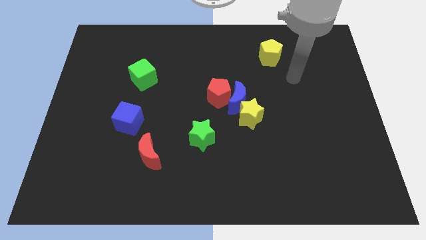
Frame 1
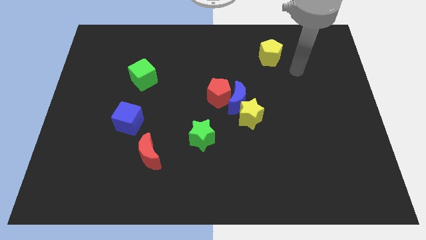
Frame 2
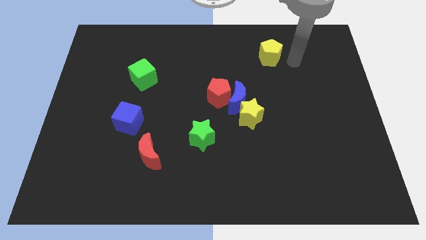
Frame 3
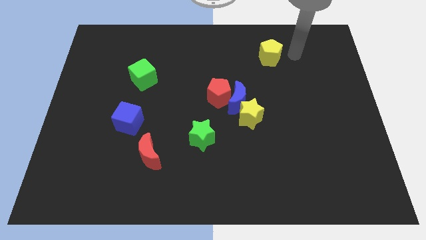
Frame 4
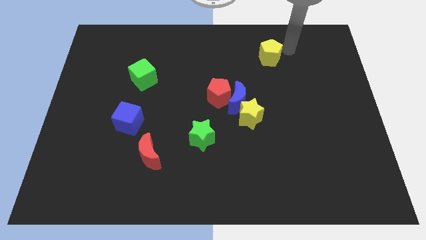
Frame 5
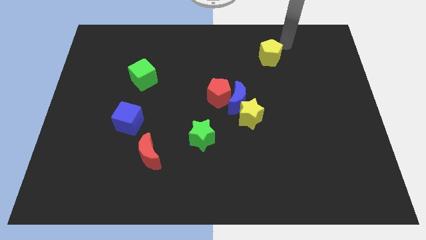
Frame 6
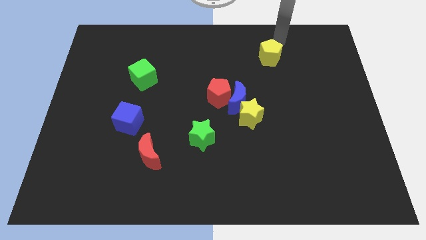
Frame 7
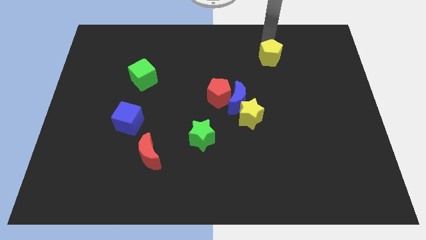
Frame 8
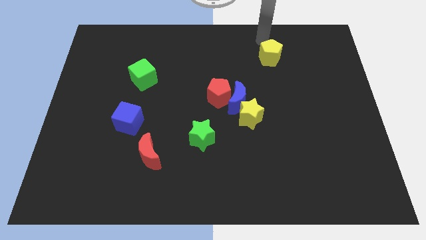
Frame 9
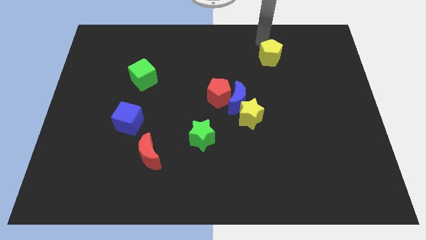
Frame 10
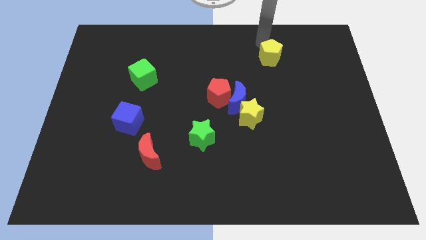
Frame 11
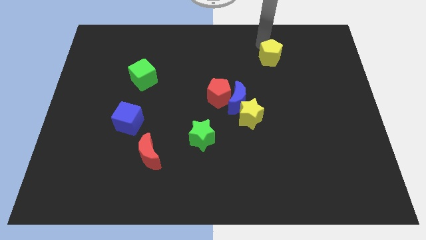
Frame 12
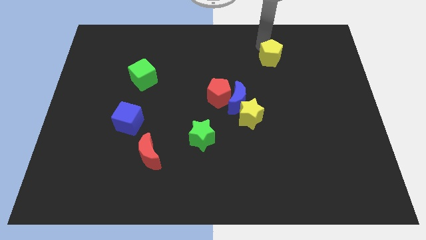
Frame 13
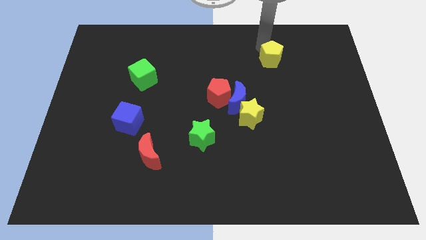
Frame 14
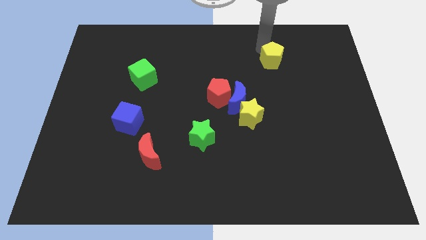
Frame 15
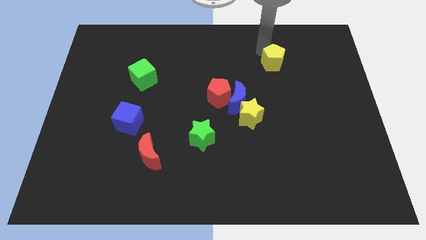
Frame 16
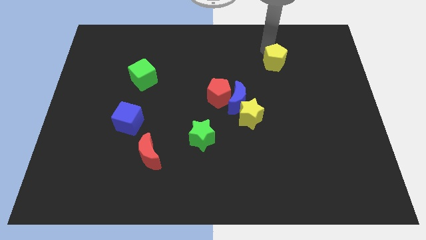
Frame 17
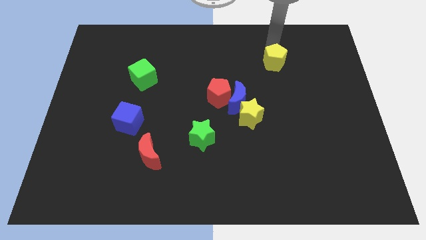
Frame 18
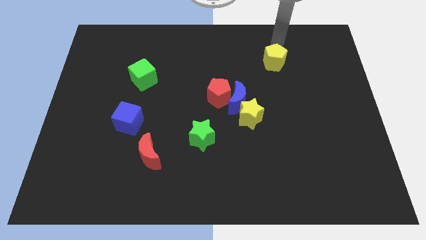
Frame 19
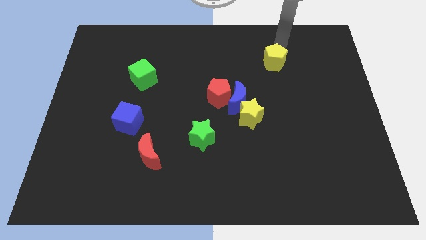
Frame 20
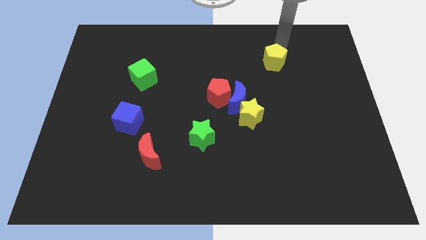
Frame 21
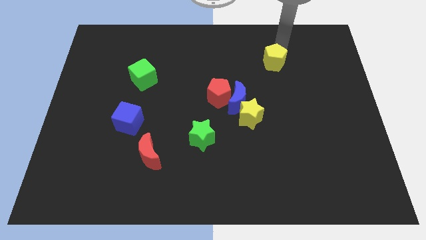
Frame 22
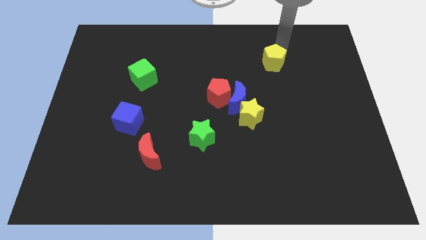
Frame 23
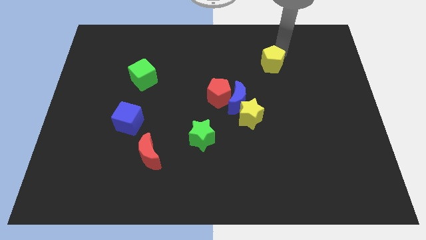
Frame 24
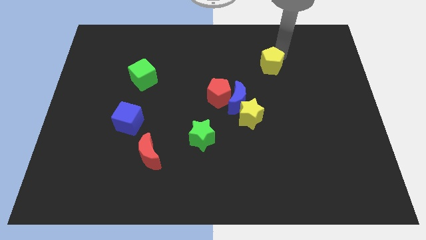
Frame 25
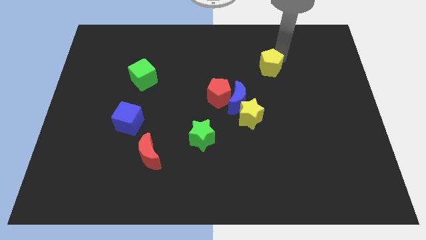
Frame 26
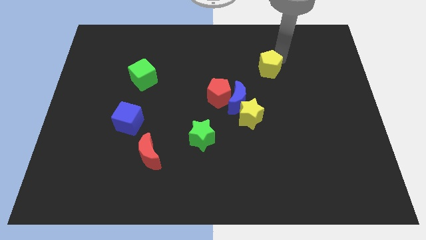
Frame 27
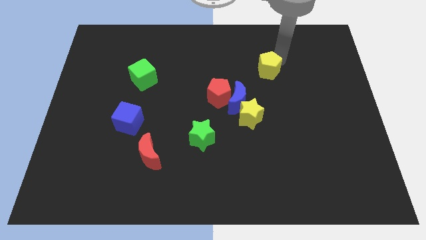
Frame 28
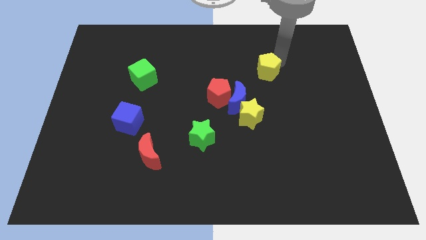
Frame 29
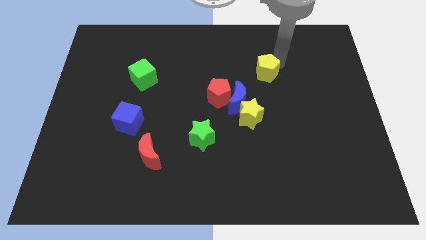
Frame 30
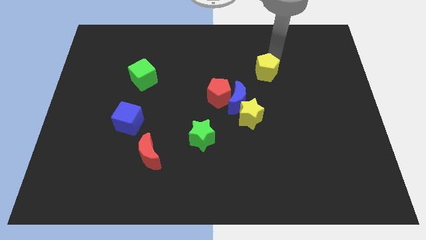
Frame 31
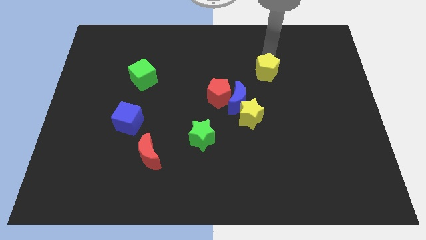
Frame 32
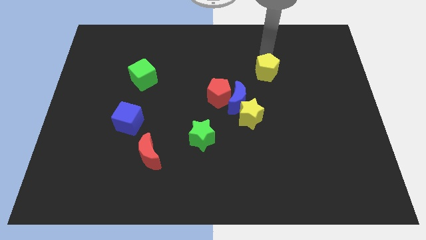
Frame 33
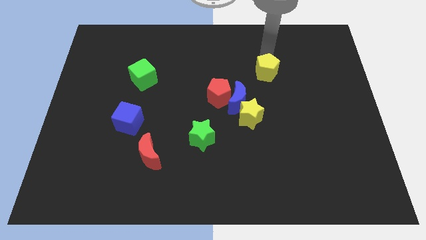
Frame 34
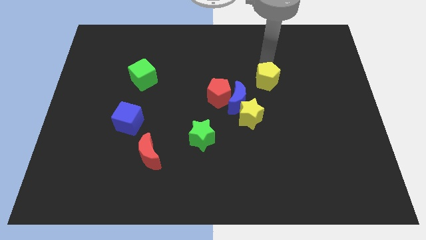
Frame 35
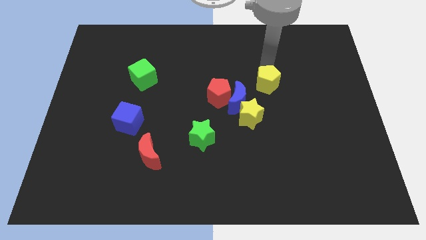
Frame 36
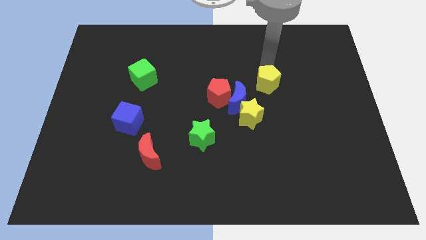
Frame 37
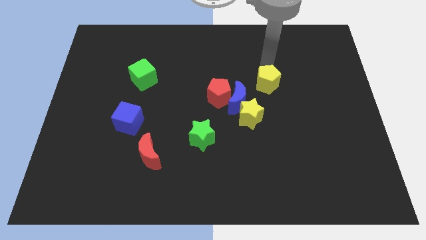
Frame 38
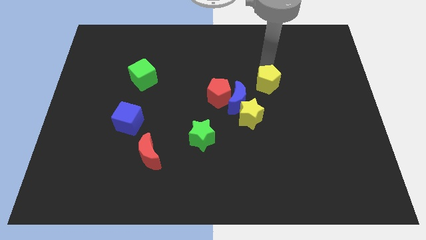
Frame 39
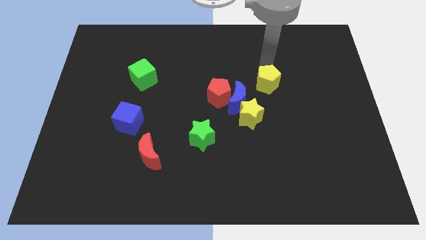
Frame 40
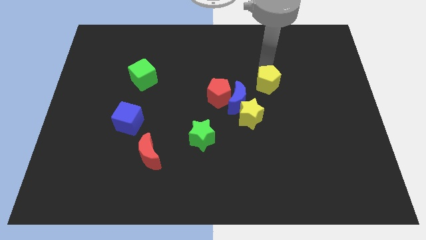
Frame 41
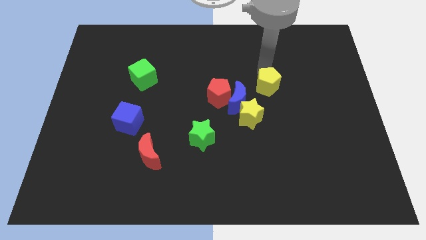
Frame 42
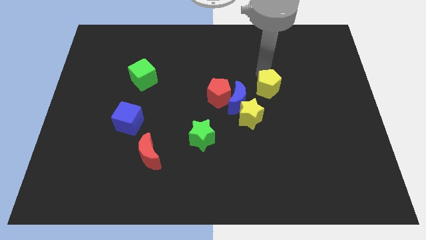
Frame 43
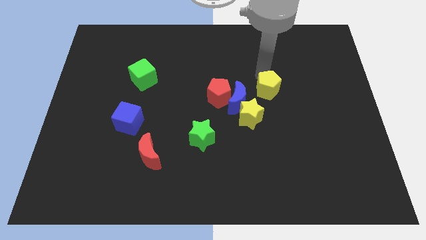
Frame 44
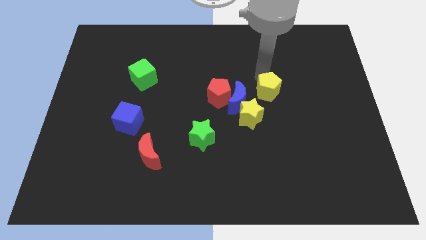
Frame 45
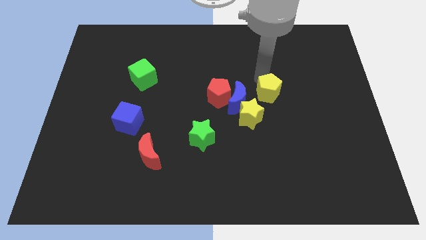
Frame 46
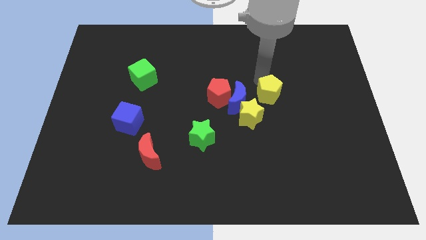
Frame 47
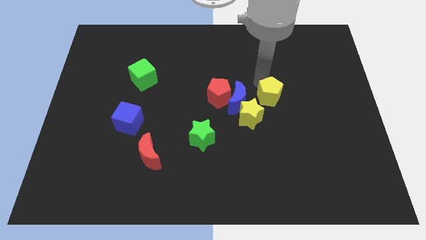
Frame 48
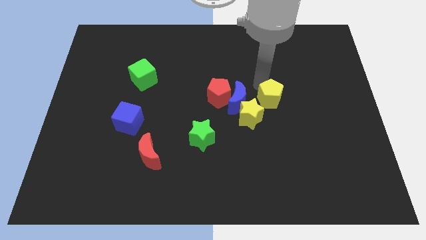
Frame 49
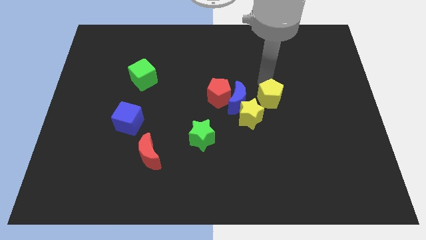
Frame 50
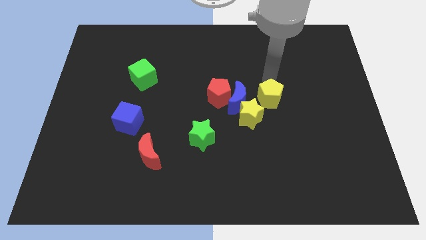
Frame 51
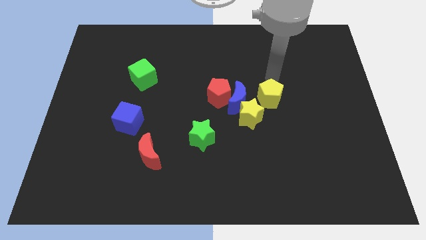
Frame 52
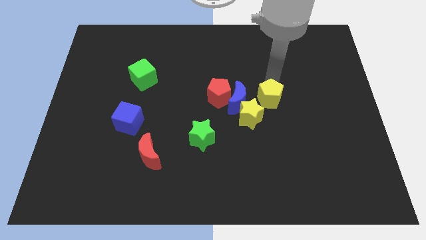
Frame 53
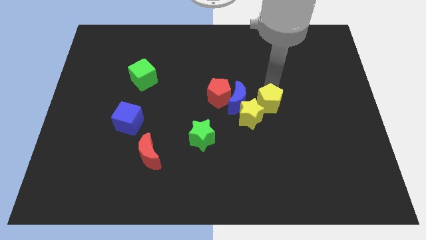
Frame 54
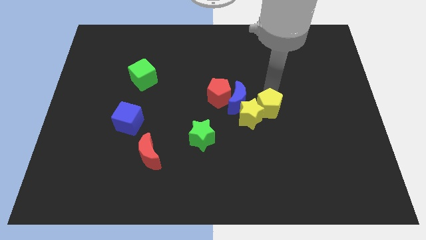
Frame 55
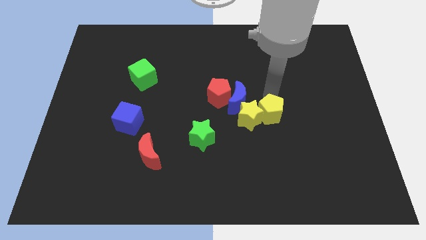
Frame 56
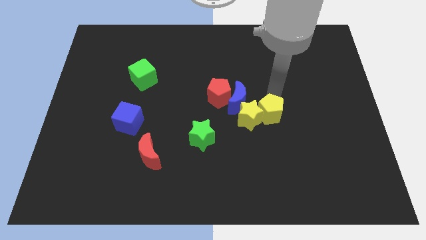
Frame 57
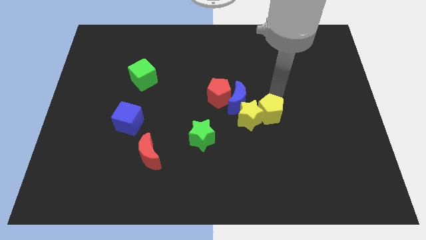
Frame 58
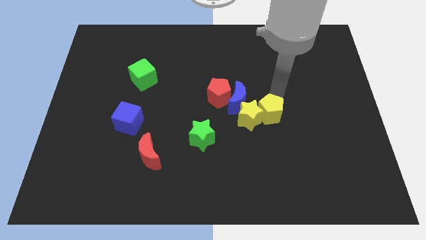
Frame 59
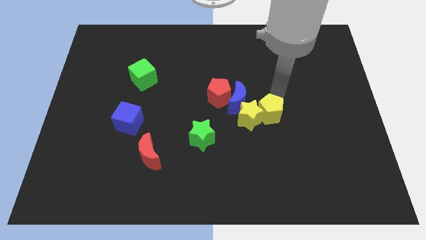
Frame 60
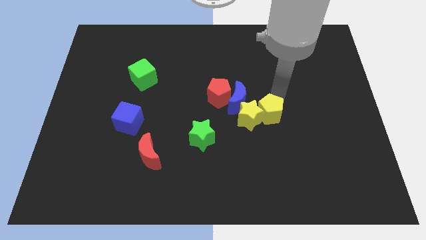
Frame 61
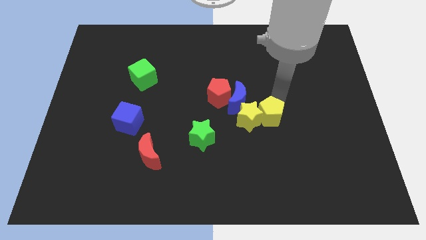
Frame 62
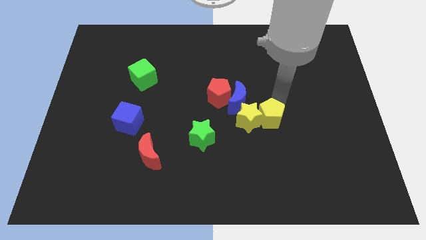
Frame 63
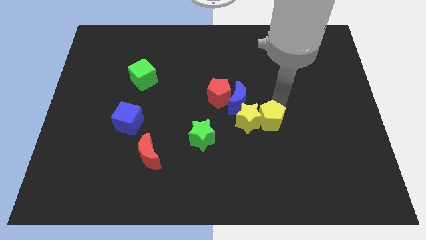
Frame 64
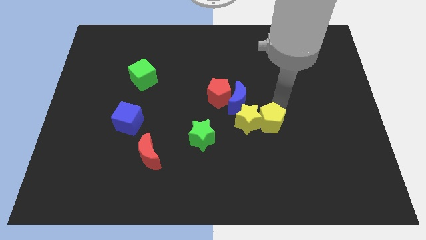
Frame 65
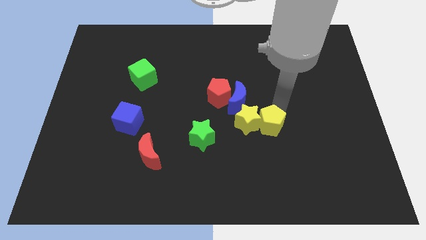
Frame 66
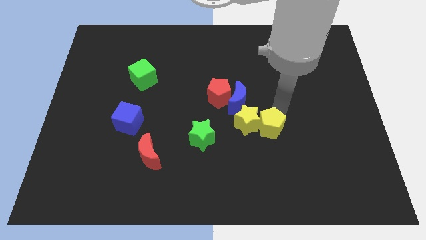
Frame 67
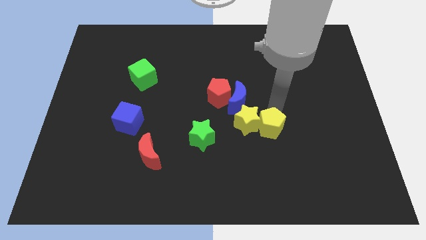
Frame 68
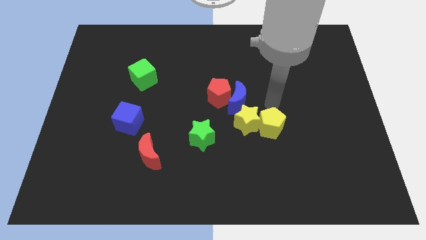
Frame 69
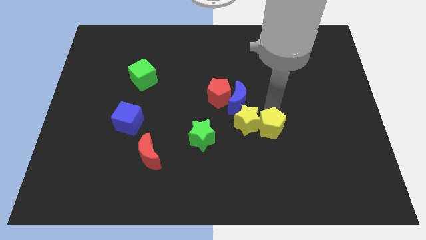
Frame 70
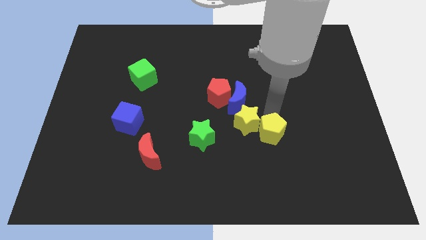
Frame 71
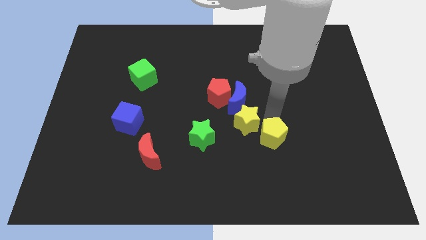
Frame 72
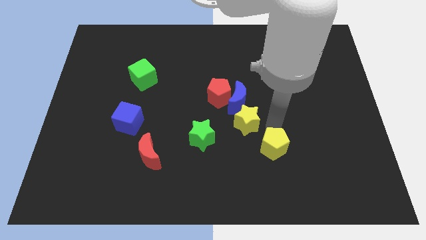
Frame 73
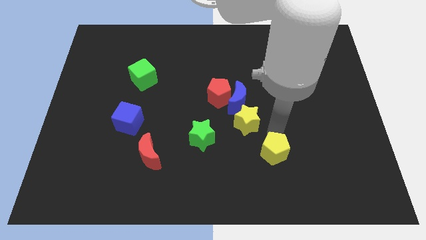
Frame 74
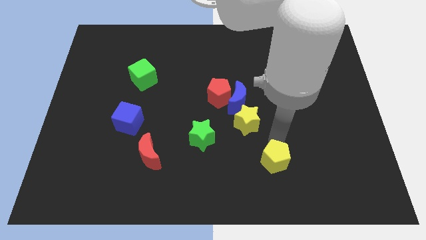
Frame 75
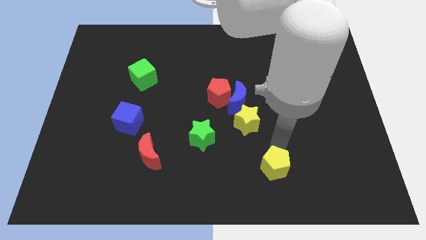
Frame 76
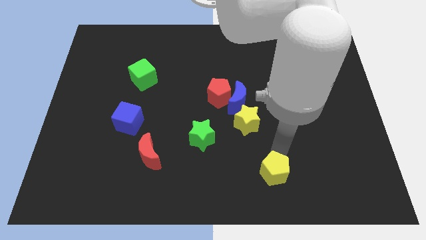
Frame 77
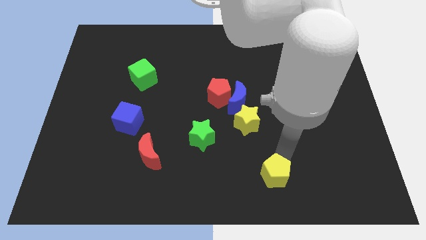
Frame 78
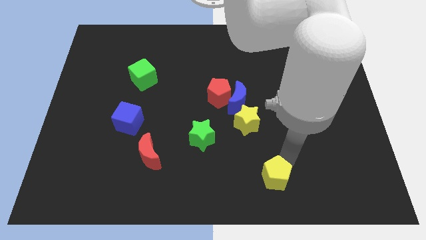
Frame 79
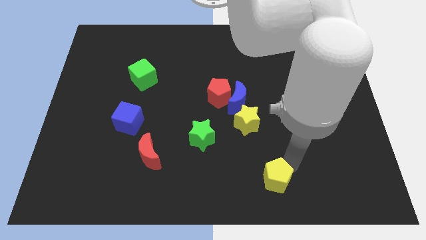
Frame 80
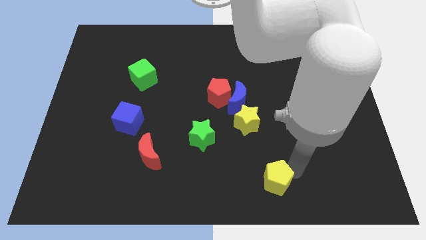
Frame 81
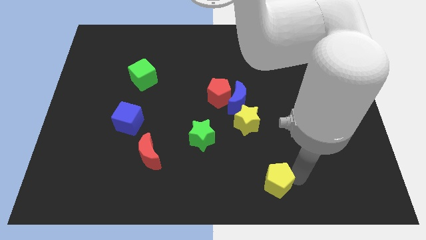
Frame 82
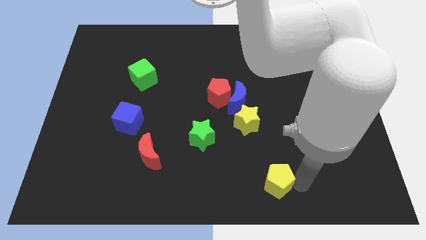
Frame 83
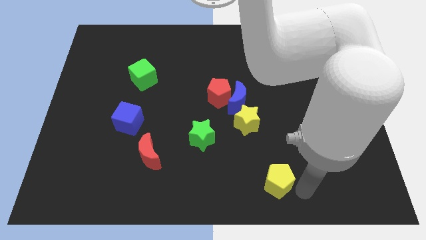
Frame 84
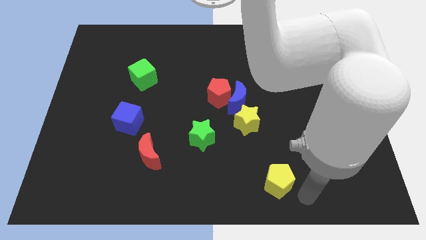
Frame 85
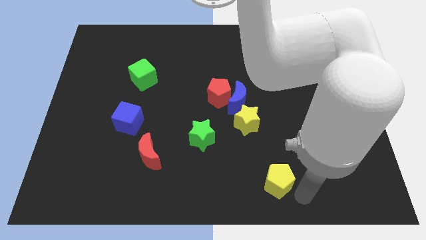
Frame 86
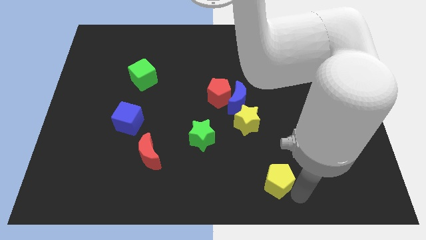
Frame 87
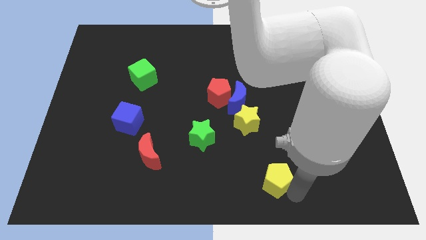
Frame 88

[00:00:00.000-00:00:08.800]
put the yellow pentagon to the bottom
